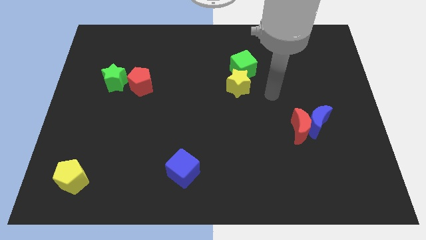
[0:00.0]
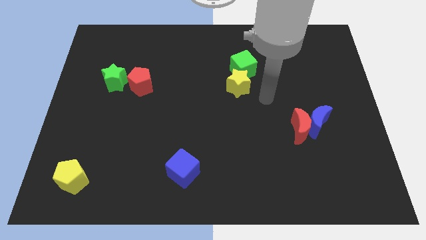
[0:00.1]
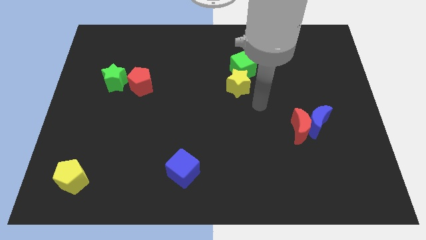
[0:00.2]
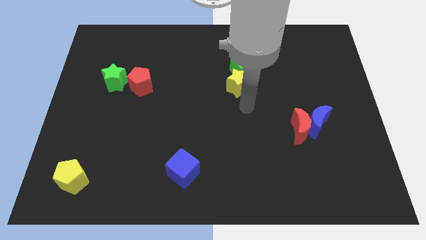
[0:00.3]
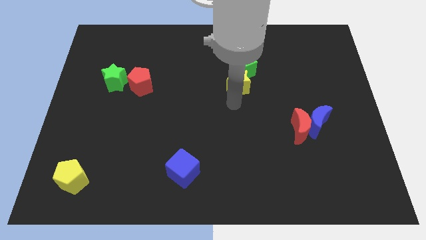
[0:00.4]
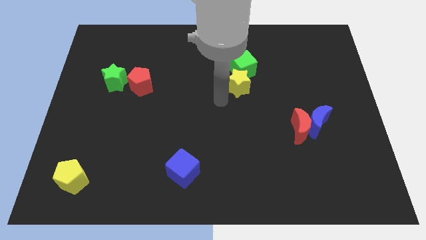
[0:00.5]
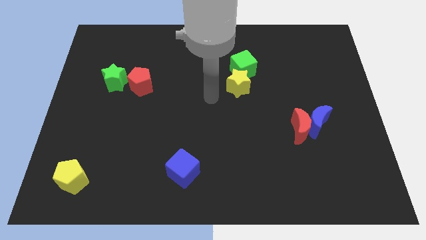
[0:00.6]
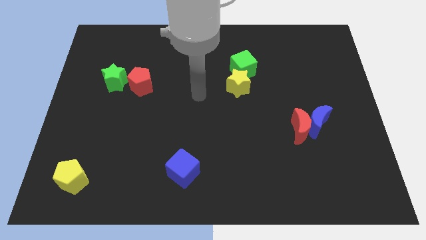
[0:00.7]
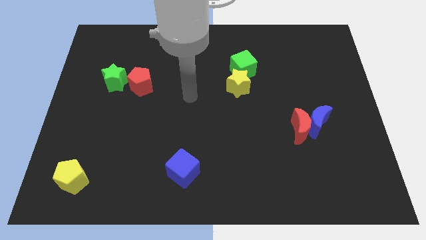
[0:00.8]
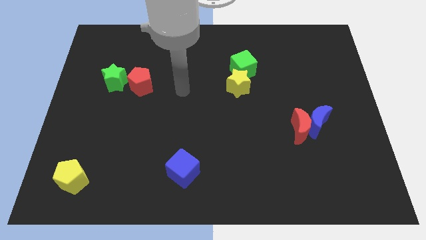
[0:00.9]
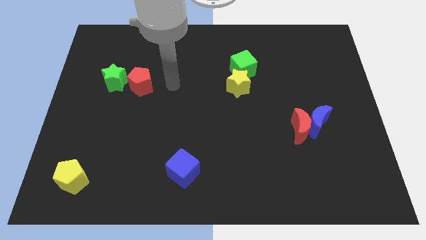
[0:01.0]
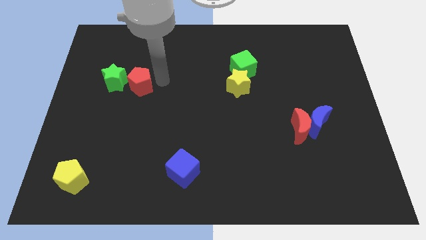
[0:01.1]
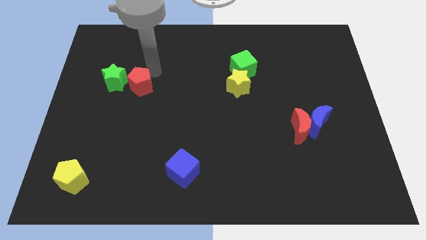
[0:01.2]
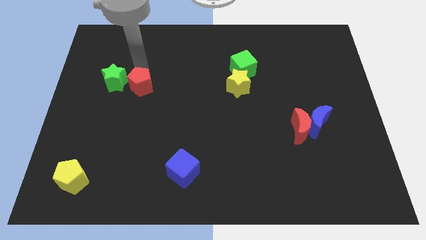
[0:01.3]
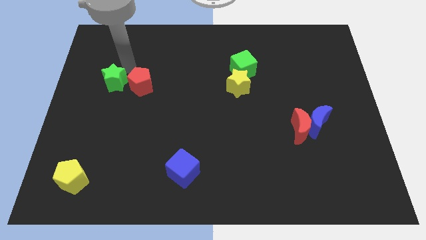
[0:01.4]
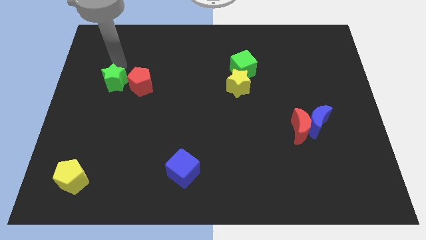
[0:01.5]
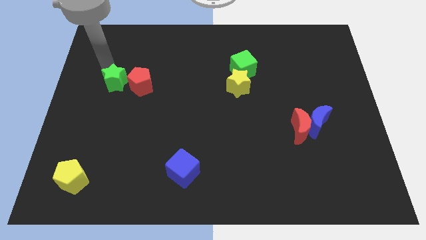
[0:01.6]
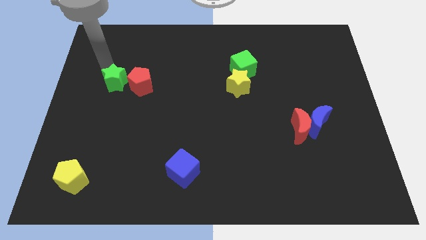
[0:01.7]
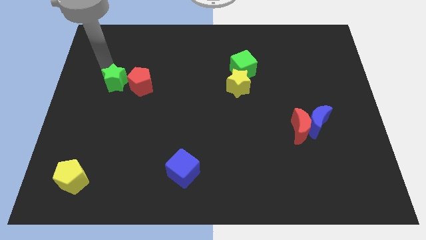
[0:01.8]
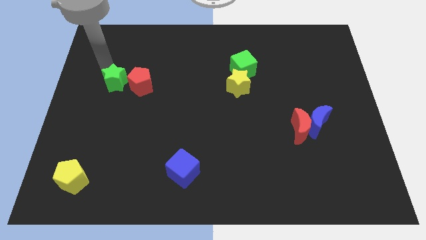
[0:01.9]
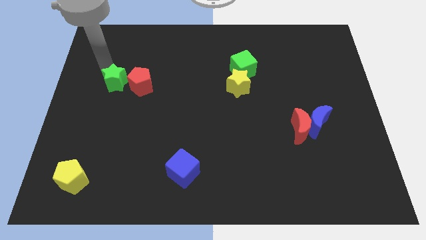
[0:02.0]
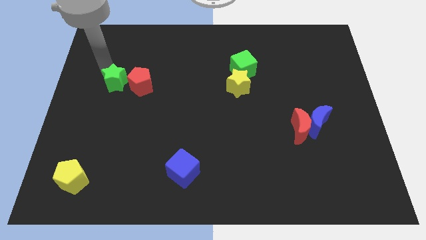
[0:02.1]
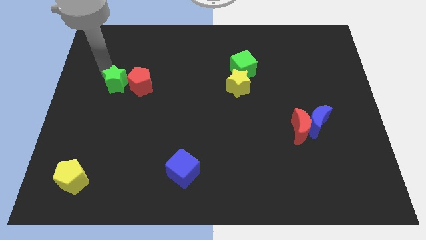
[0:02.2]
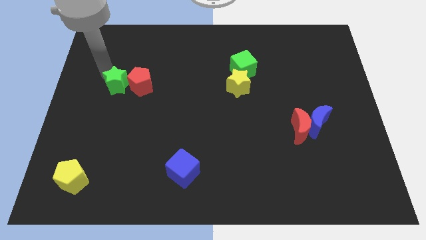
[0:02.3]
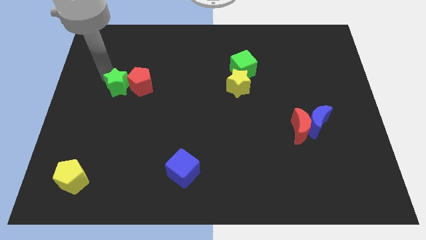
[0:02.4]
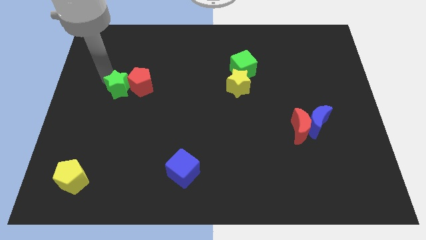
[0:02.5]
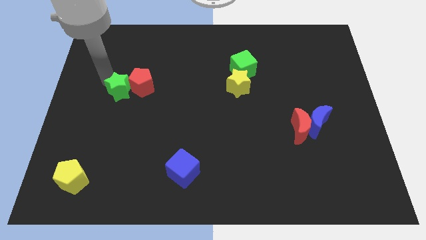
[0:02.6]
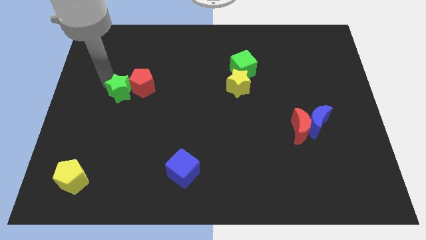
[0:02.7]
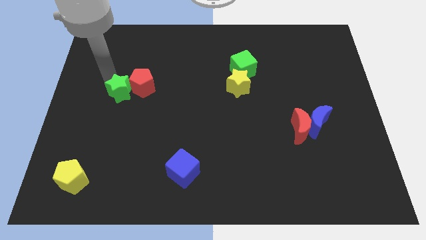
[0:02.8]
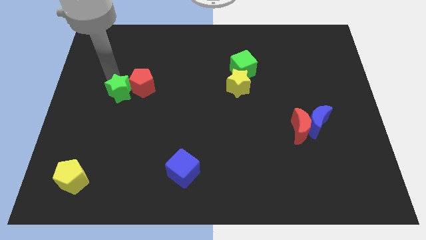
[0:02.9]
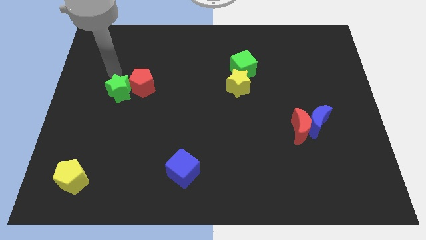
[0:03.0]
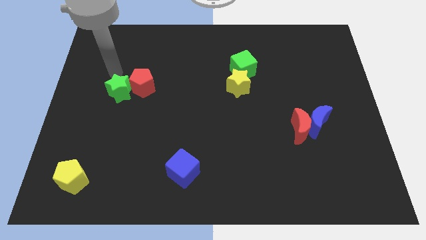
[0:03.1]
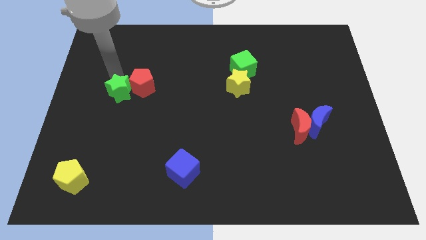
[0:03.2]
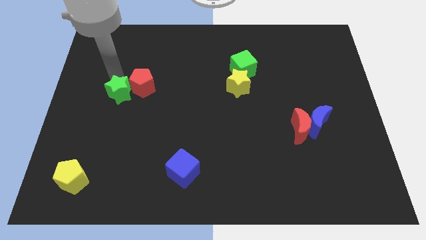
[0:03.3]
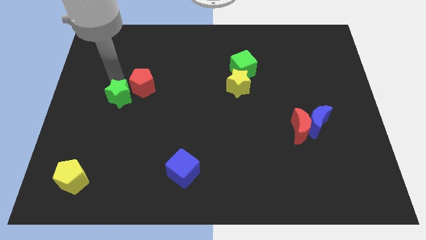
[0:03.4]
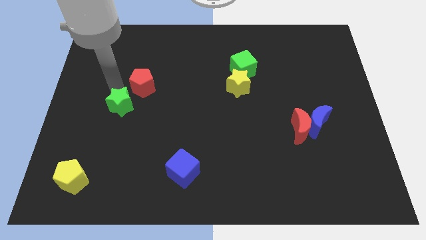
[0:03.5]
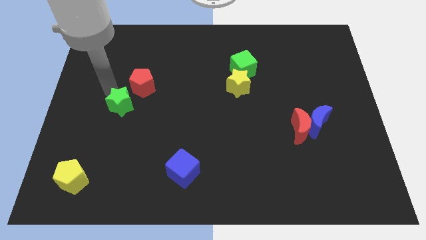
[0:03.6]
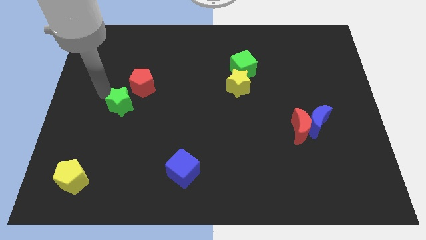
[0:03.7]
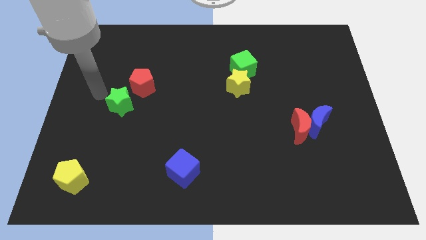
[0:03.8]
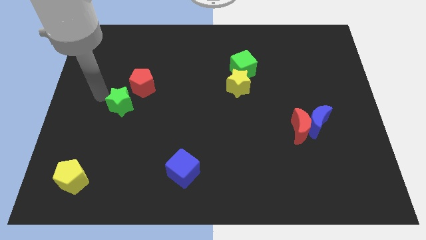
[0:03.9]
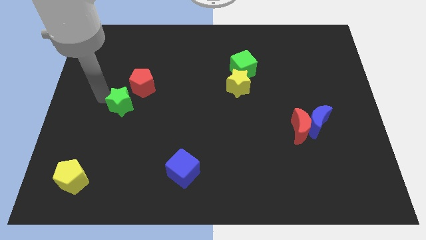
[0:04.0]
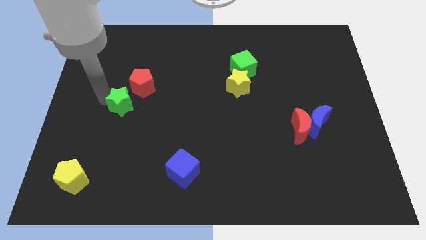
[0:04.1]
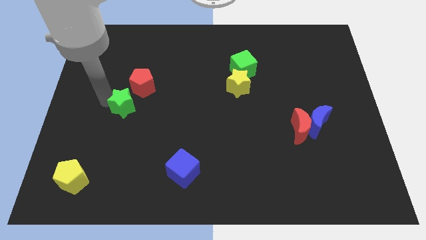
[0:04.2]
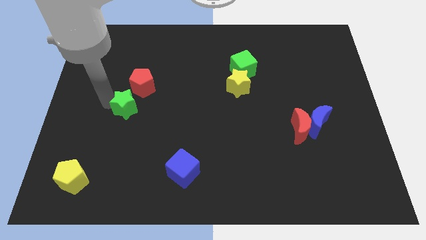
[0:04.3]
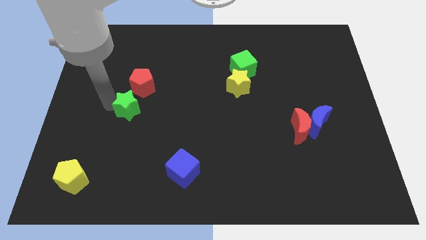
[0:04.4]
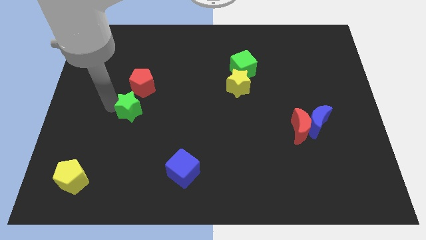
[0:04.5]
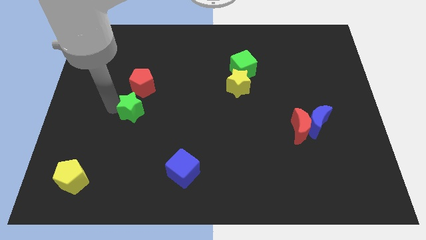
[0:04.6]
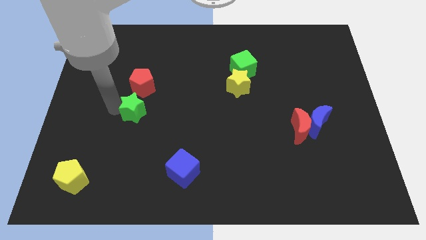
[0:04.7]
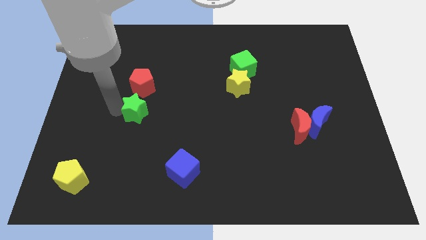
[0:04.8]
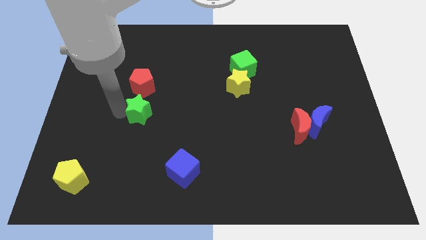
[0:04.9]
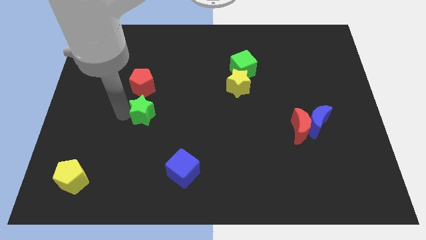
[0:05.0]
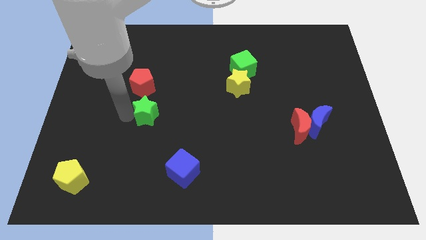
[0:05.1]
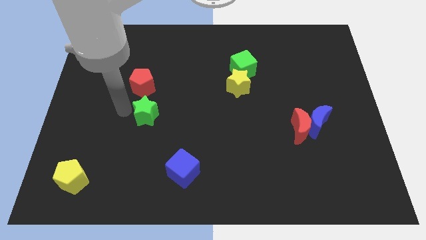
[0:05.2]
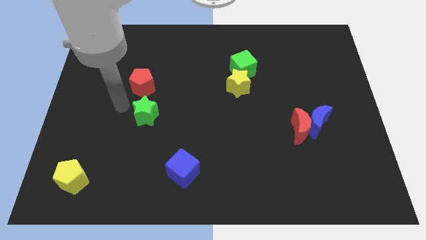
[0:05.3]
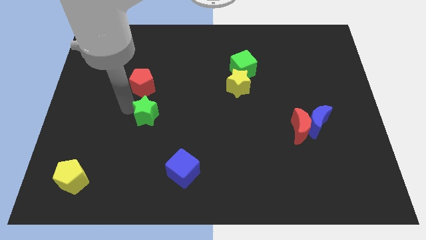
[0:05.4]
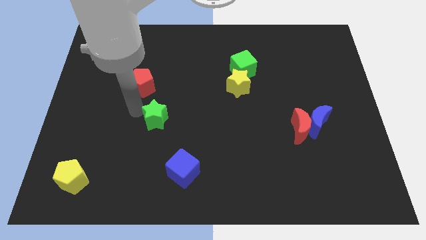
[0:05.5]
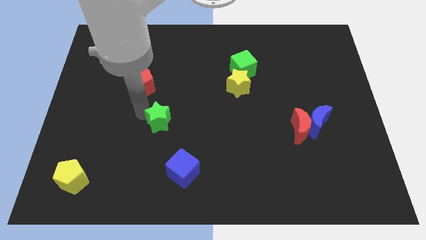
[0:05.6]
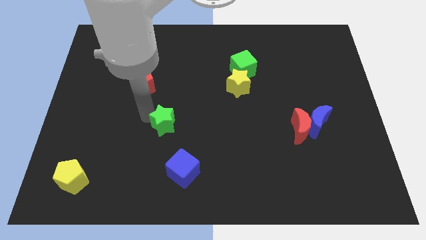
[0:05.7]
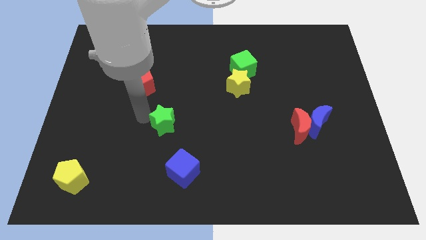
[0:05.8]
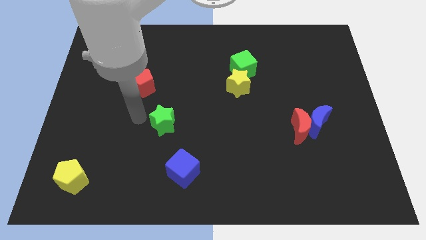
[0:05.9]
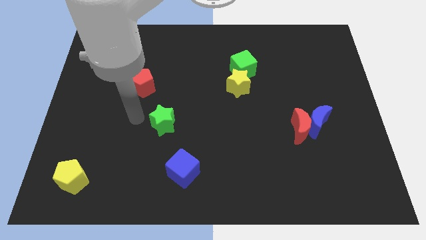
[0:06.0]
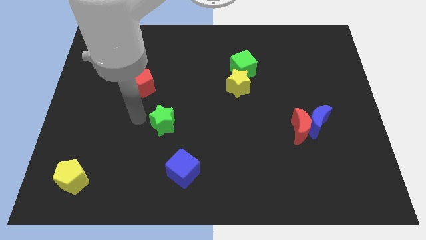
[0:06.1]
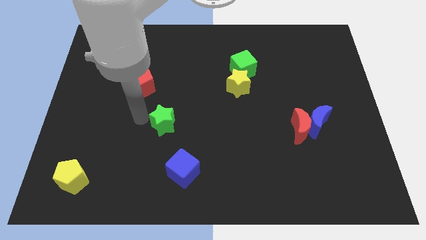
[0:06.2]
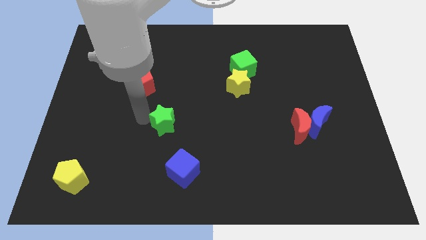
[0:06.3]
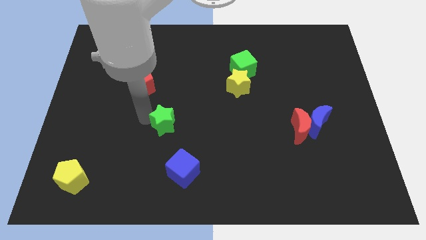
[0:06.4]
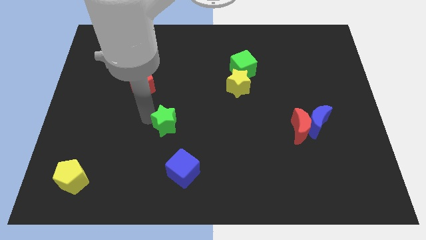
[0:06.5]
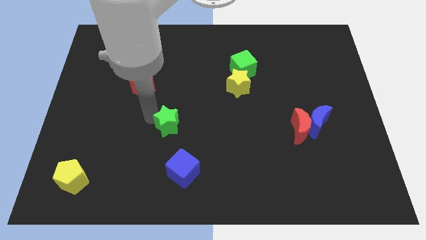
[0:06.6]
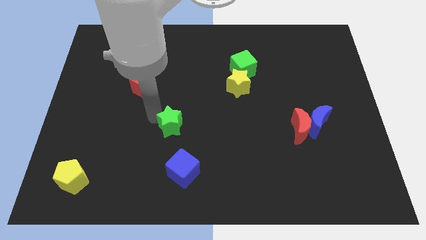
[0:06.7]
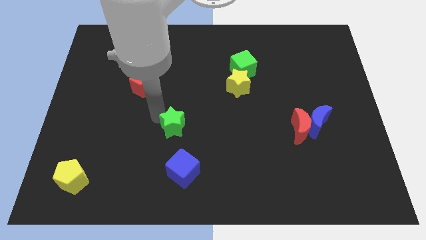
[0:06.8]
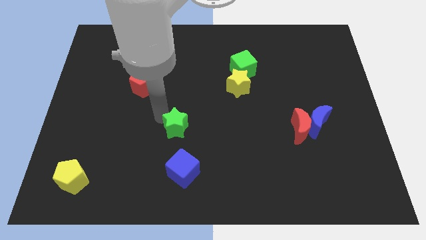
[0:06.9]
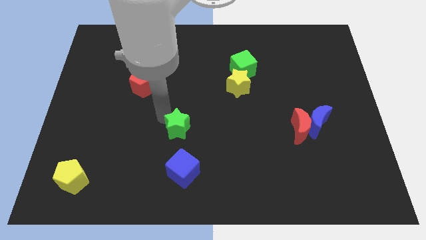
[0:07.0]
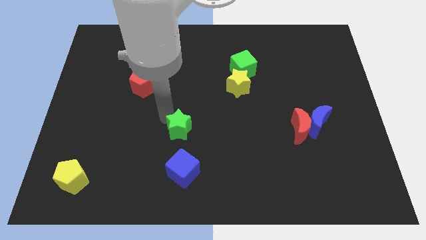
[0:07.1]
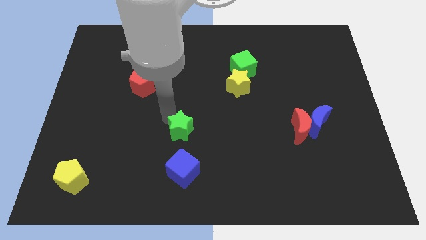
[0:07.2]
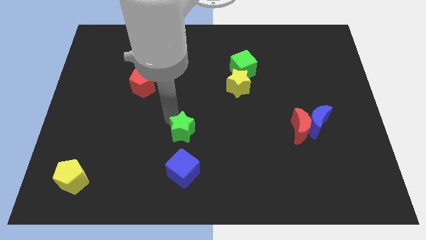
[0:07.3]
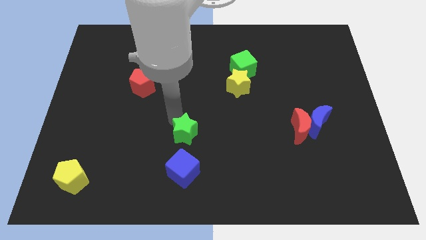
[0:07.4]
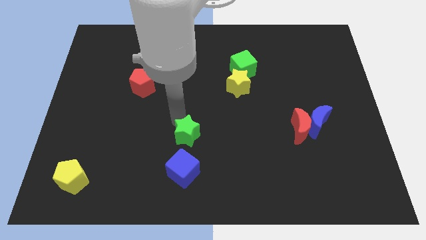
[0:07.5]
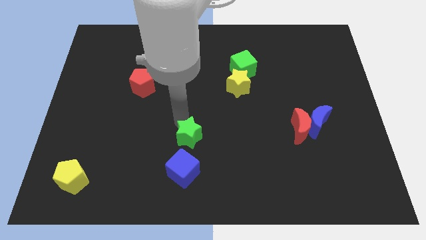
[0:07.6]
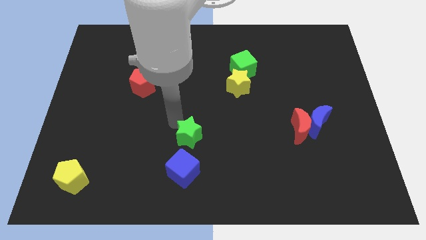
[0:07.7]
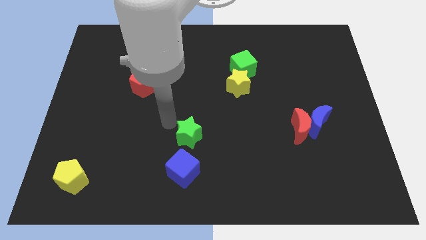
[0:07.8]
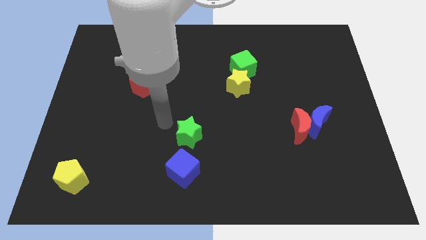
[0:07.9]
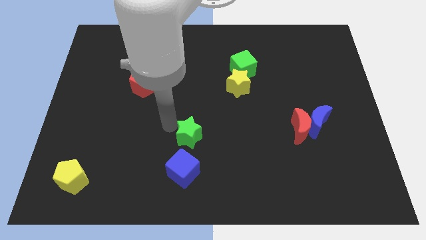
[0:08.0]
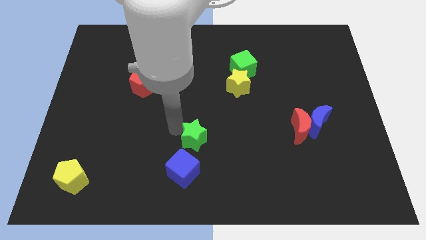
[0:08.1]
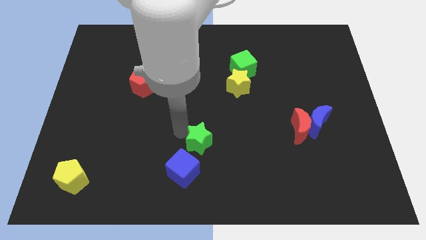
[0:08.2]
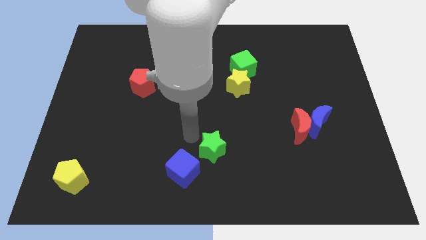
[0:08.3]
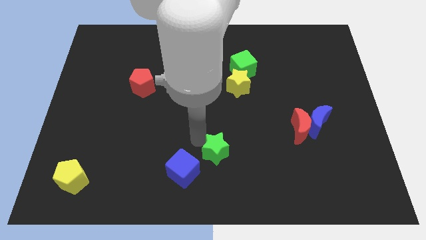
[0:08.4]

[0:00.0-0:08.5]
put the green star to the right side of the blue cube
